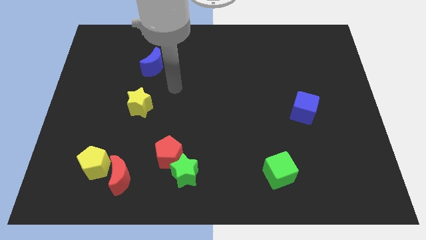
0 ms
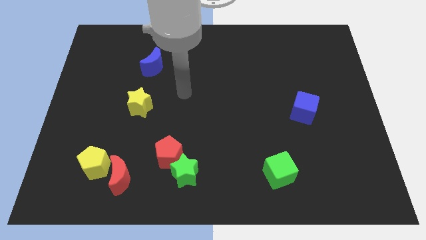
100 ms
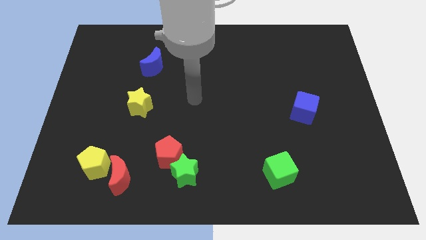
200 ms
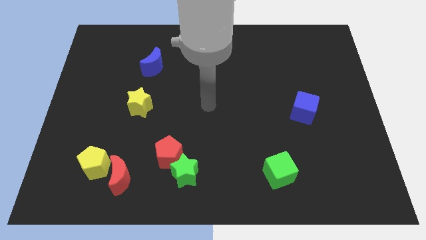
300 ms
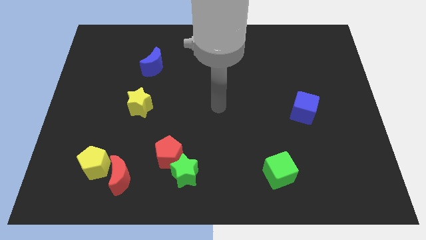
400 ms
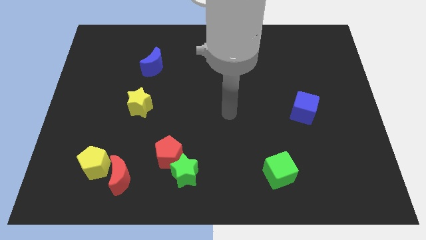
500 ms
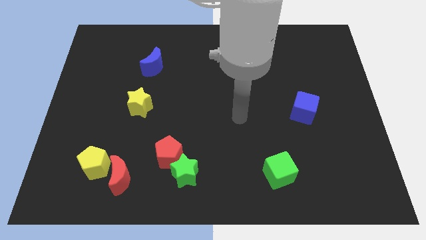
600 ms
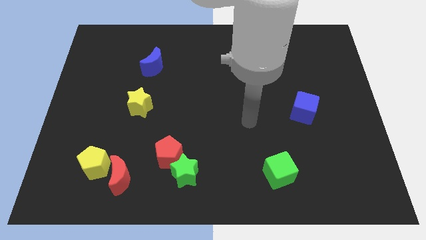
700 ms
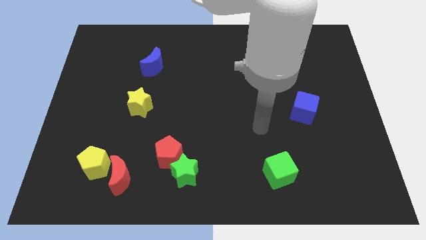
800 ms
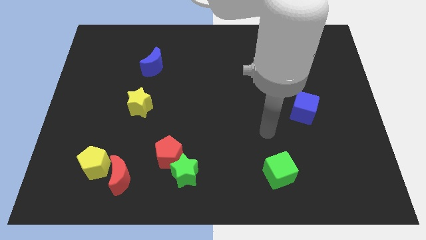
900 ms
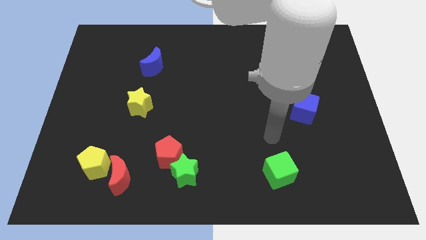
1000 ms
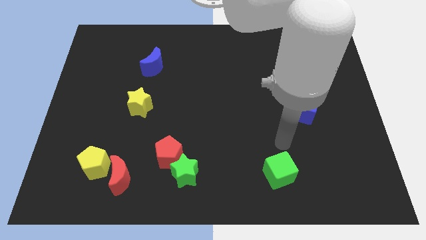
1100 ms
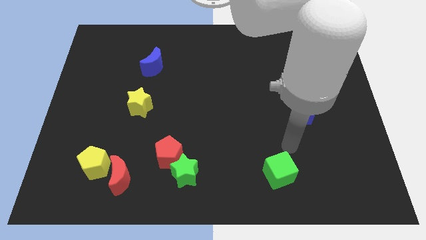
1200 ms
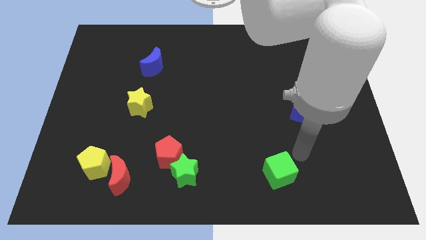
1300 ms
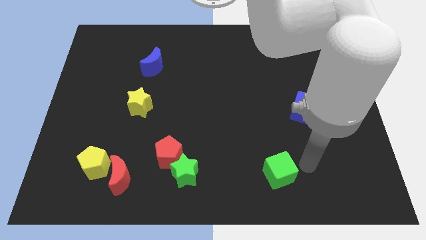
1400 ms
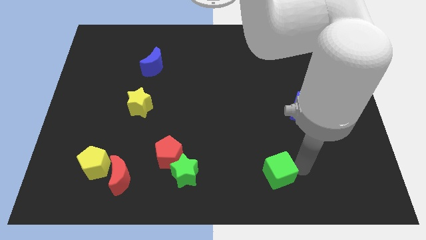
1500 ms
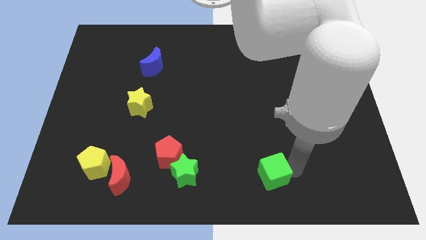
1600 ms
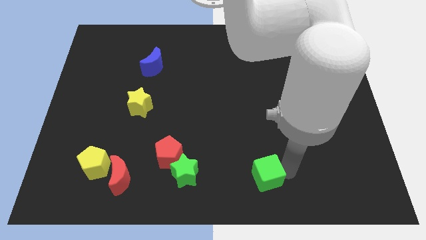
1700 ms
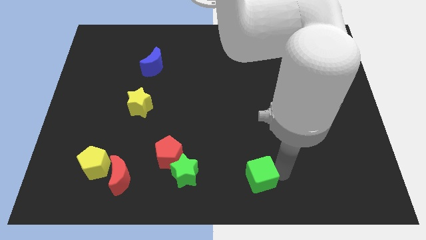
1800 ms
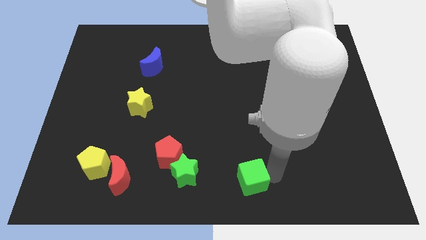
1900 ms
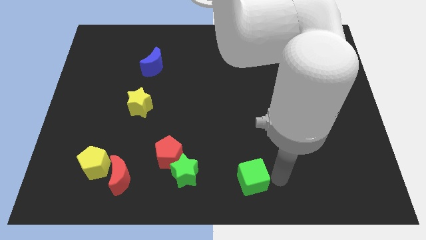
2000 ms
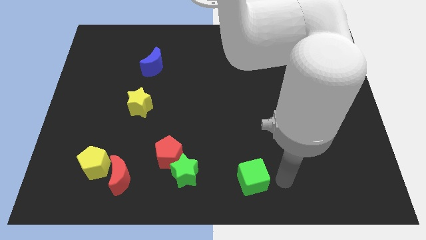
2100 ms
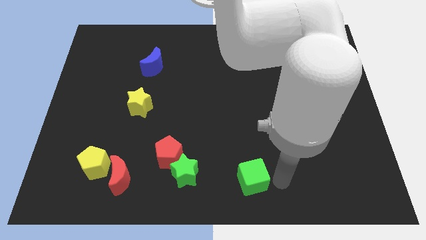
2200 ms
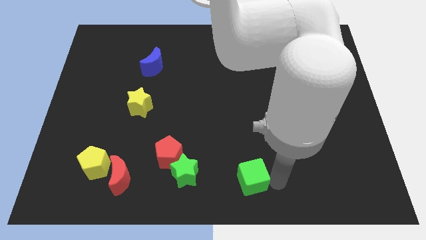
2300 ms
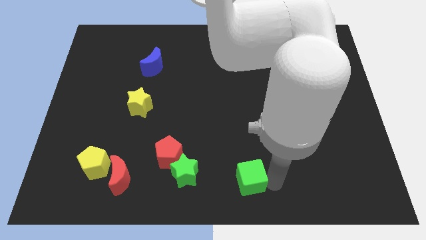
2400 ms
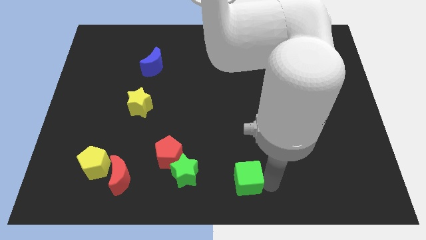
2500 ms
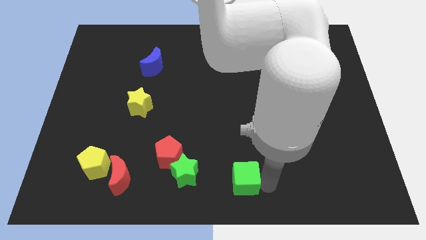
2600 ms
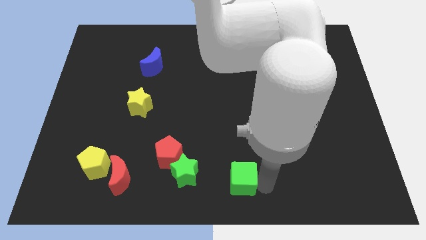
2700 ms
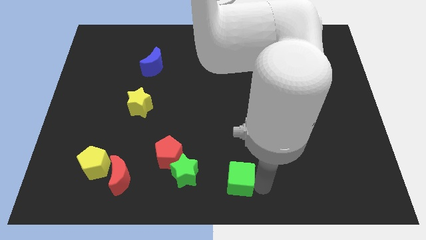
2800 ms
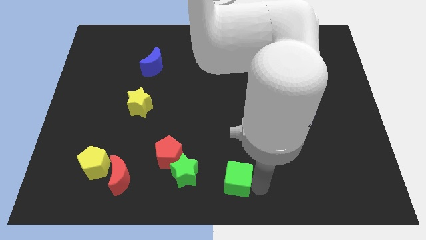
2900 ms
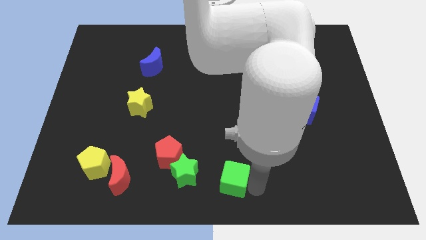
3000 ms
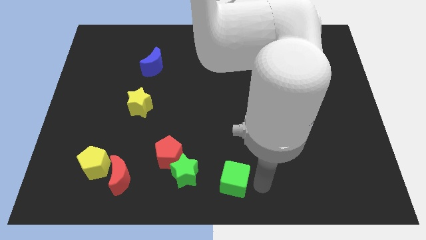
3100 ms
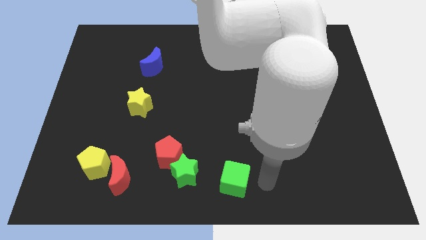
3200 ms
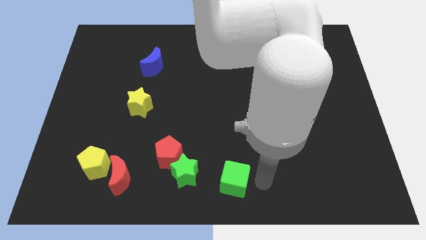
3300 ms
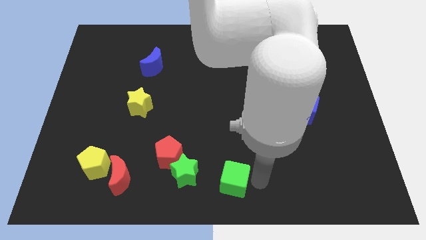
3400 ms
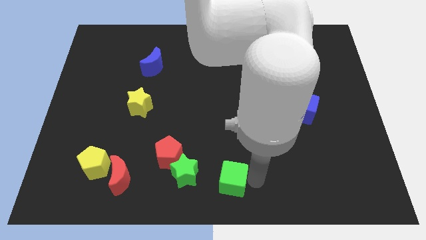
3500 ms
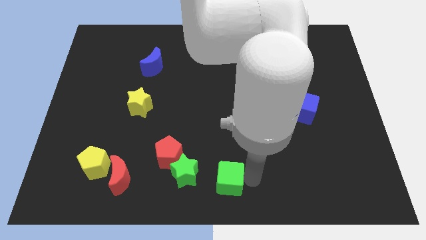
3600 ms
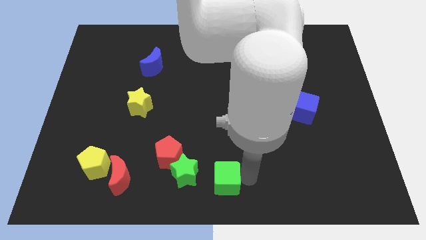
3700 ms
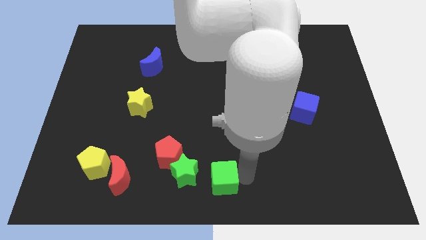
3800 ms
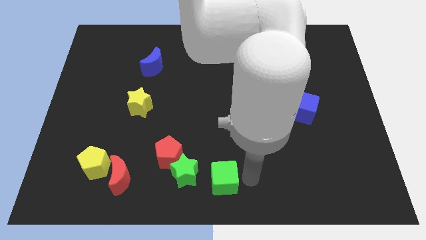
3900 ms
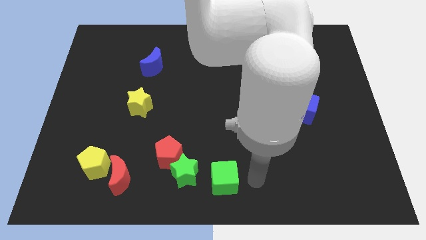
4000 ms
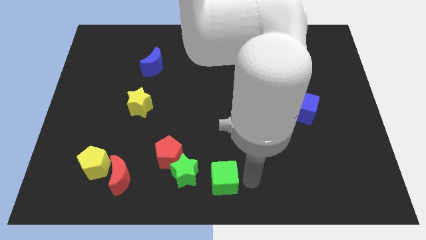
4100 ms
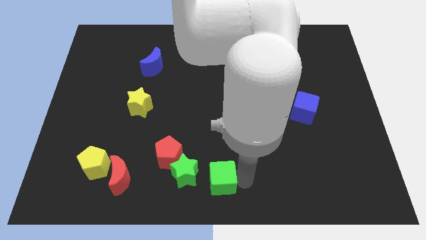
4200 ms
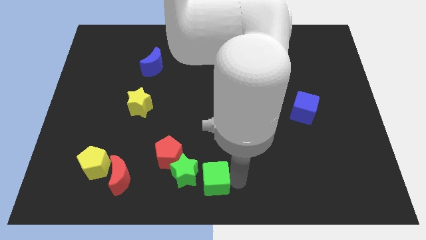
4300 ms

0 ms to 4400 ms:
push the green cube to the green star

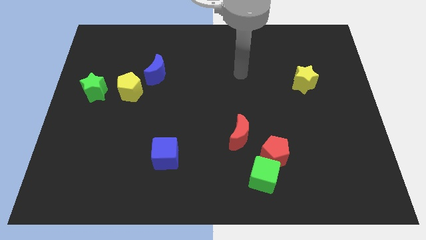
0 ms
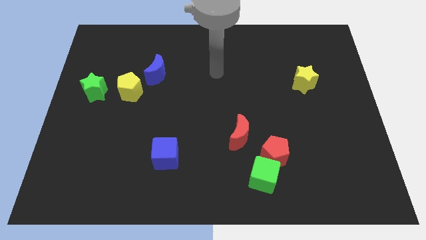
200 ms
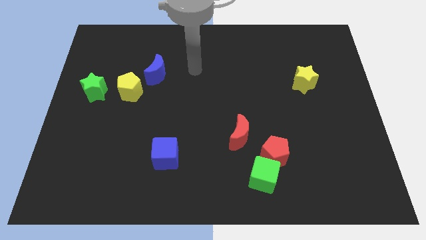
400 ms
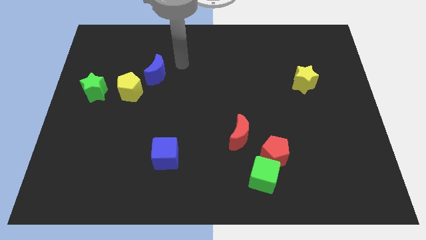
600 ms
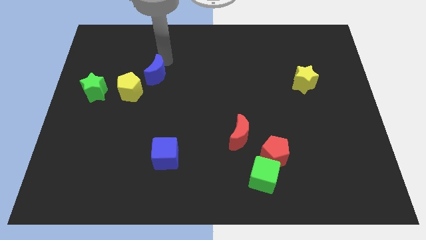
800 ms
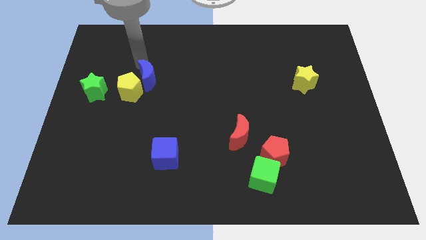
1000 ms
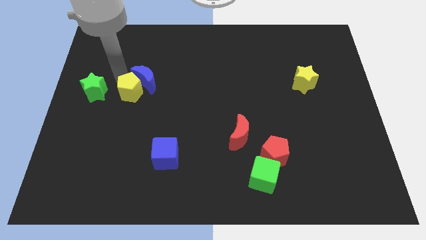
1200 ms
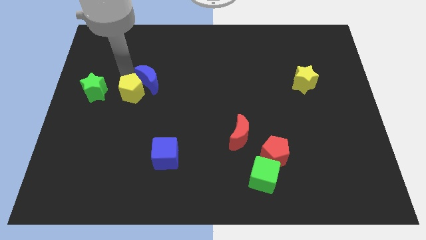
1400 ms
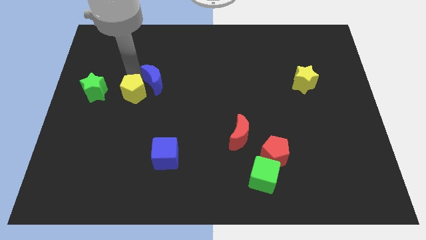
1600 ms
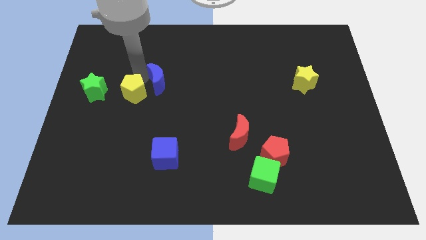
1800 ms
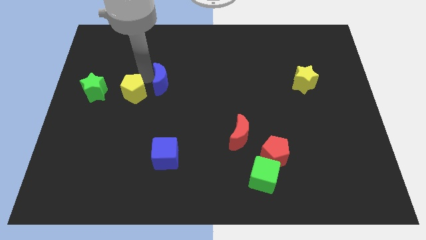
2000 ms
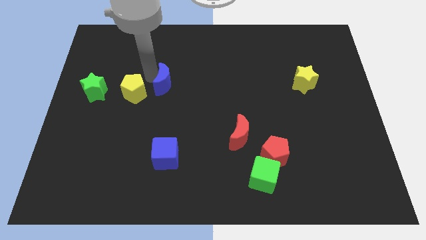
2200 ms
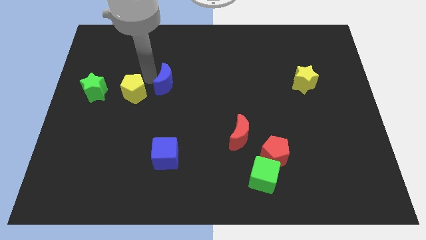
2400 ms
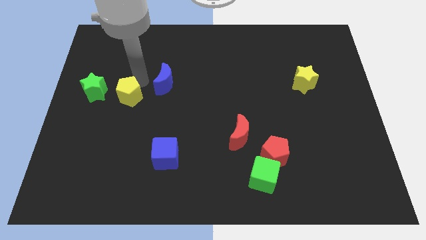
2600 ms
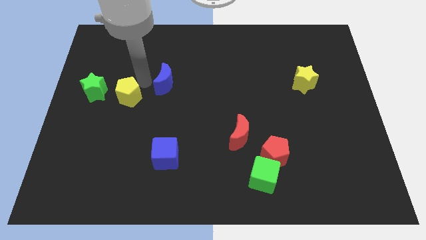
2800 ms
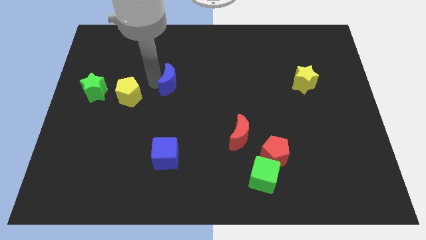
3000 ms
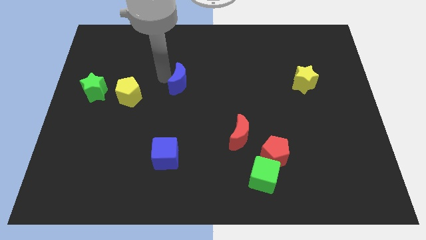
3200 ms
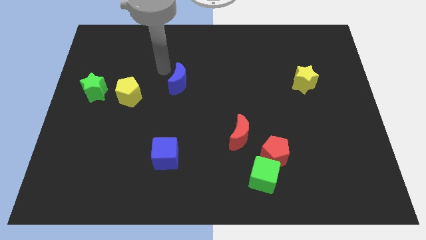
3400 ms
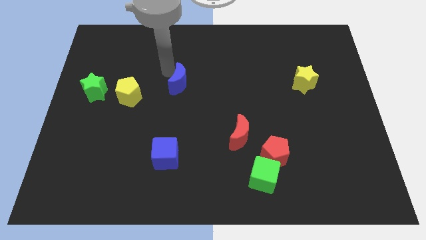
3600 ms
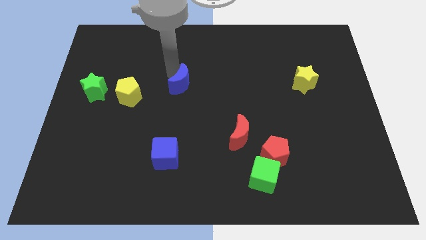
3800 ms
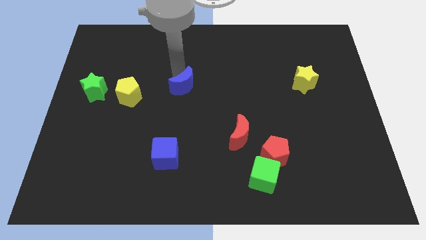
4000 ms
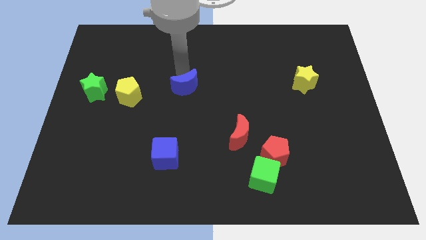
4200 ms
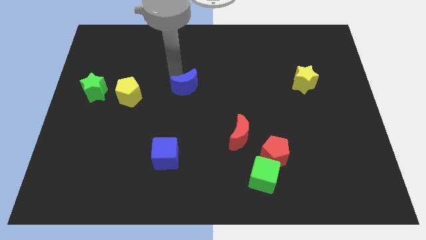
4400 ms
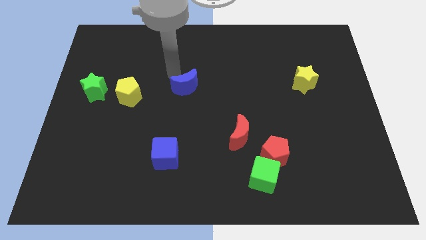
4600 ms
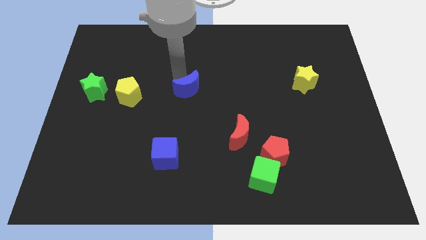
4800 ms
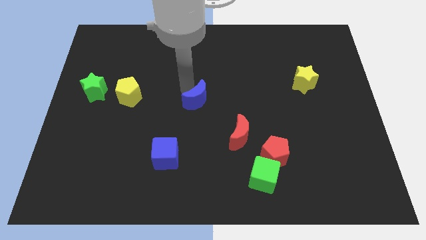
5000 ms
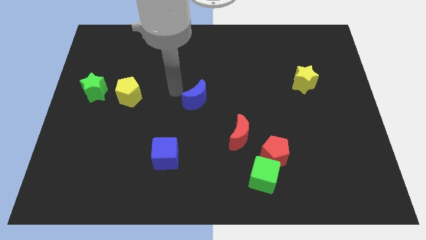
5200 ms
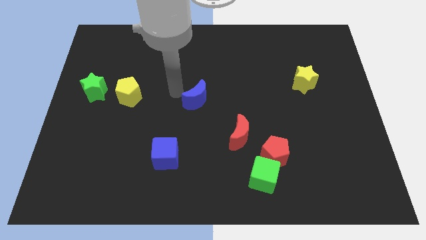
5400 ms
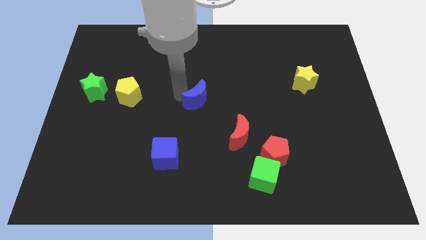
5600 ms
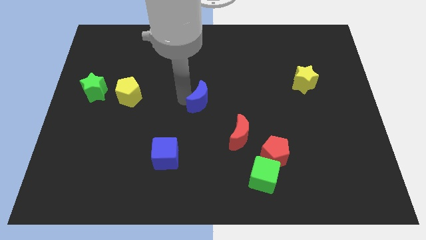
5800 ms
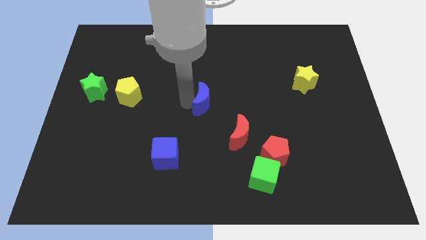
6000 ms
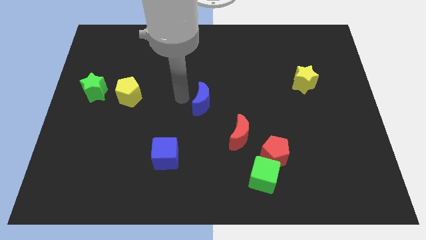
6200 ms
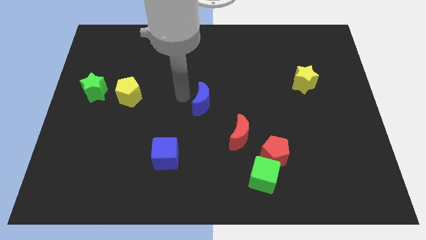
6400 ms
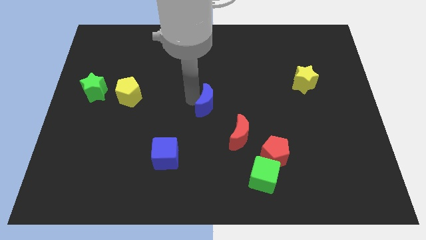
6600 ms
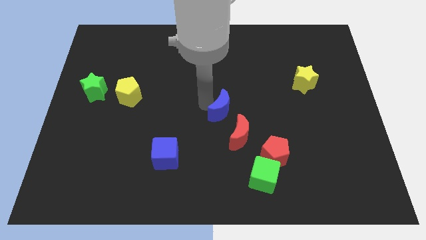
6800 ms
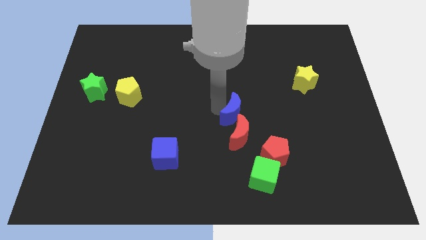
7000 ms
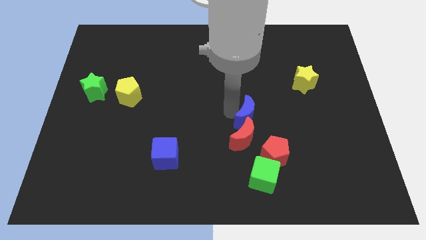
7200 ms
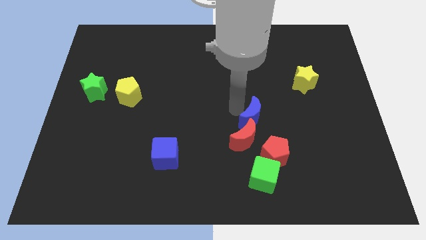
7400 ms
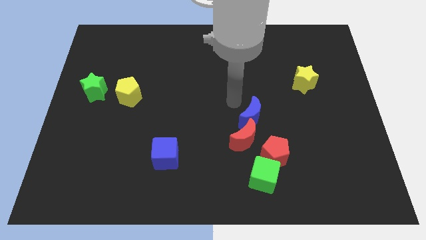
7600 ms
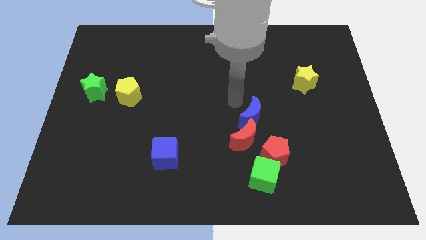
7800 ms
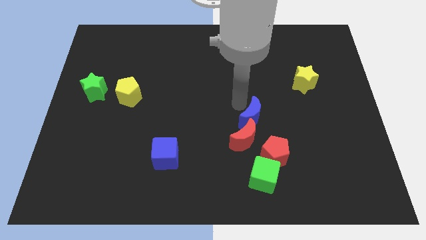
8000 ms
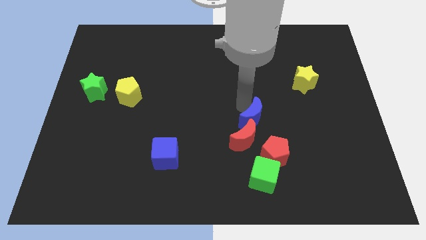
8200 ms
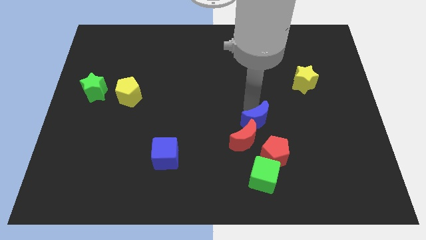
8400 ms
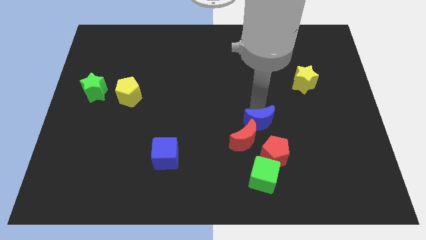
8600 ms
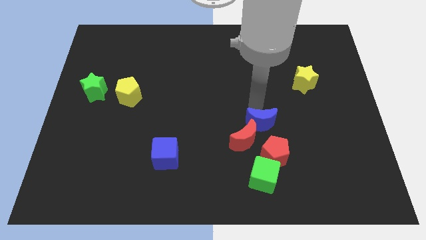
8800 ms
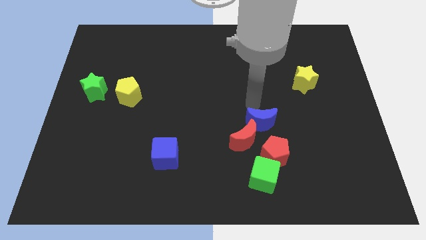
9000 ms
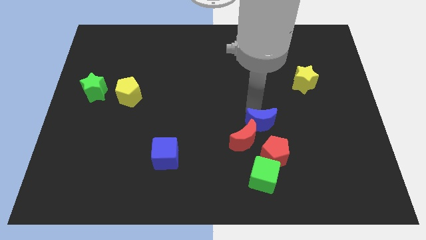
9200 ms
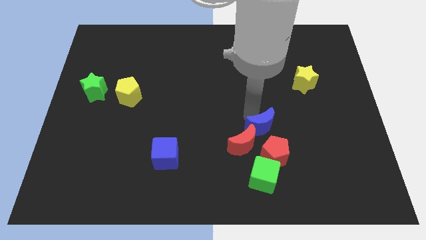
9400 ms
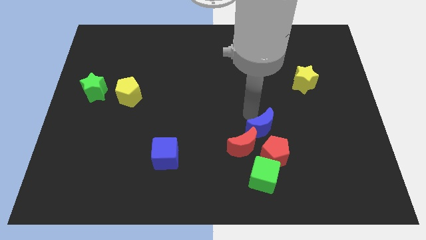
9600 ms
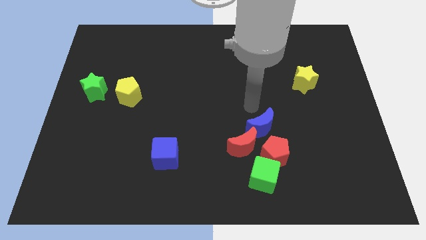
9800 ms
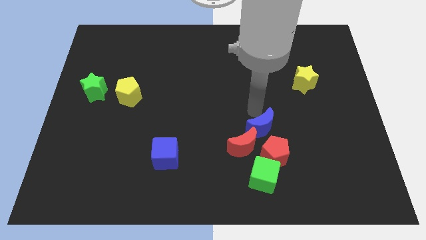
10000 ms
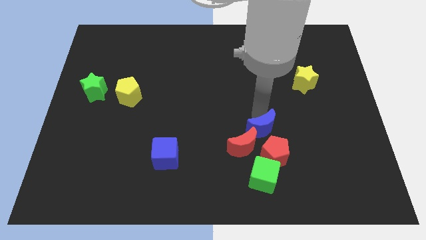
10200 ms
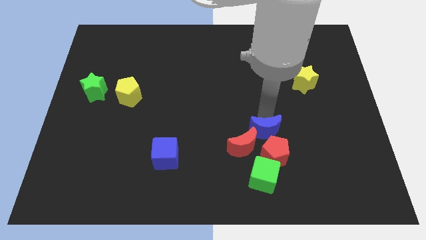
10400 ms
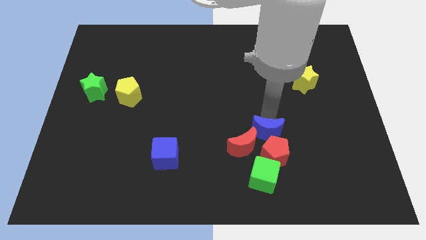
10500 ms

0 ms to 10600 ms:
push the blue moon close to the red pentagon
